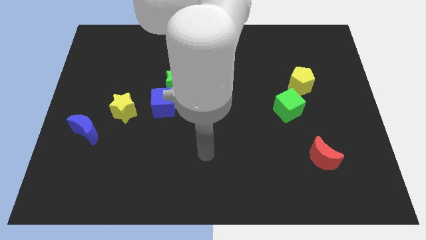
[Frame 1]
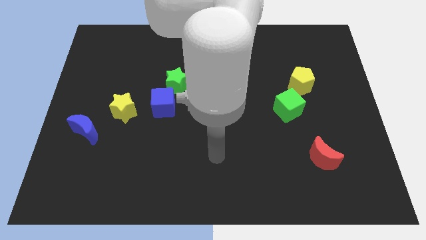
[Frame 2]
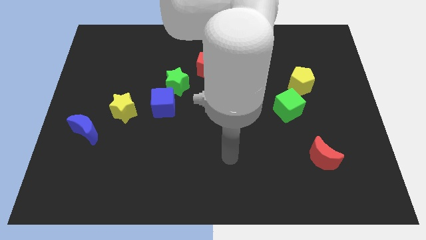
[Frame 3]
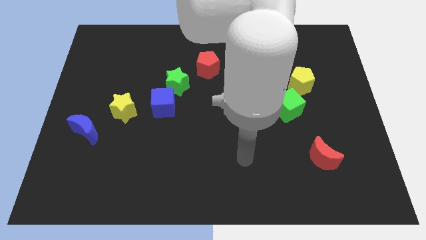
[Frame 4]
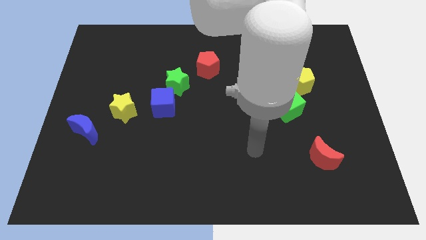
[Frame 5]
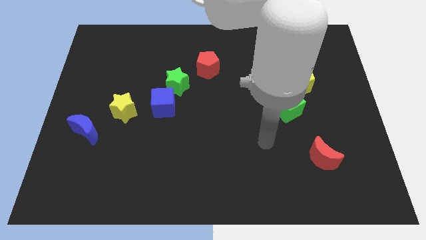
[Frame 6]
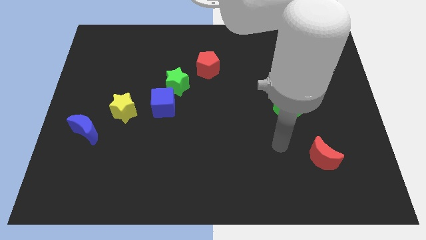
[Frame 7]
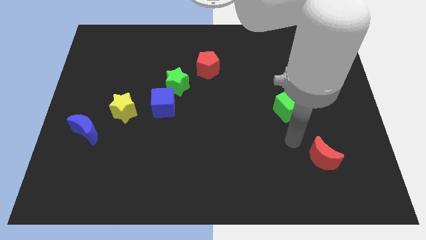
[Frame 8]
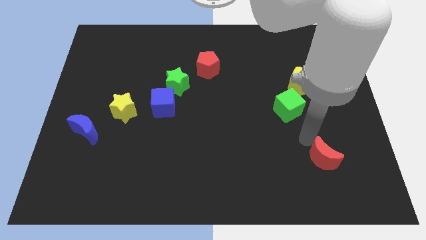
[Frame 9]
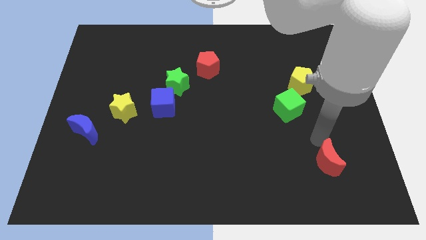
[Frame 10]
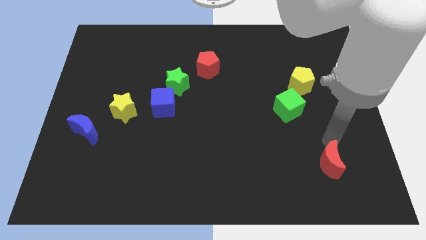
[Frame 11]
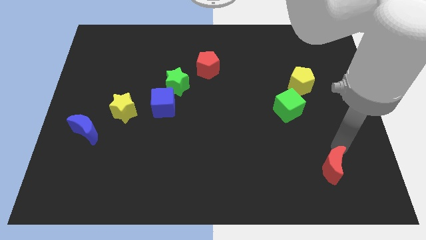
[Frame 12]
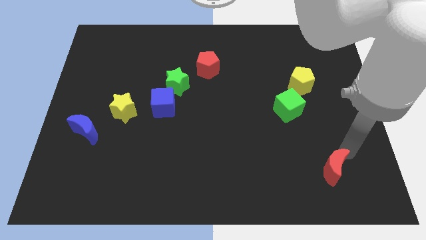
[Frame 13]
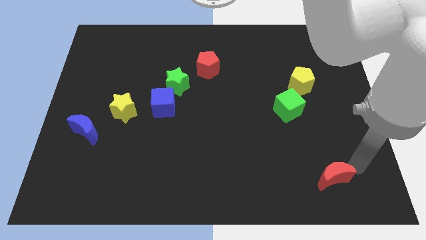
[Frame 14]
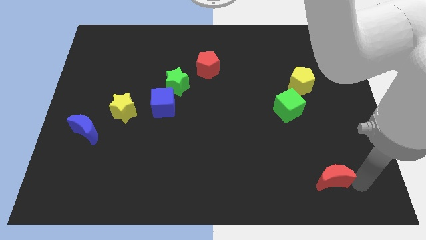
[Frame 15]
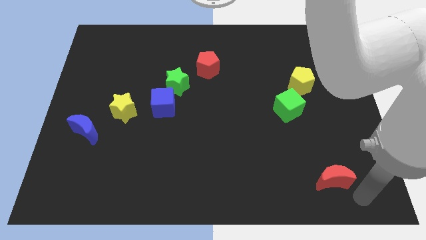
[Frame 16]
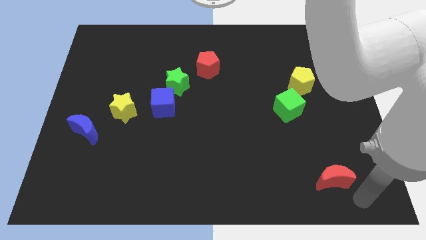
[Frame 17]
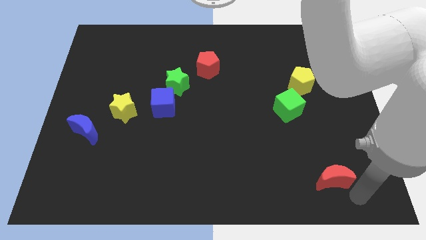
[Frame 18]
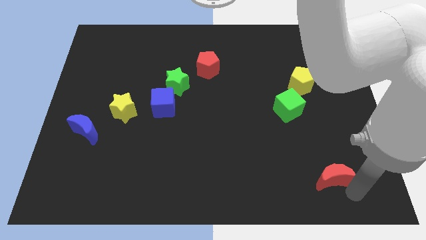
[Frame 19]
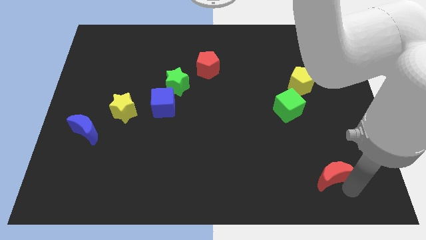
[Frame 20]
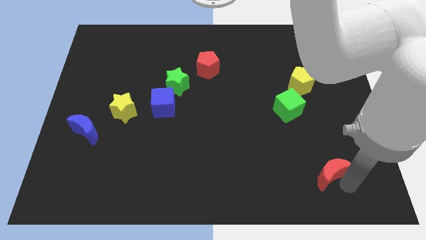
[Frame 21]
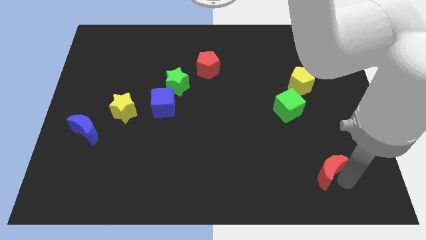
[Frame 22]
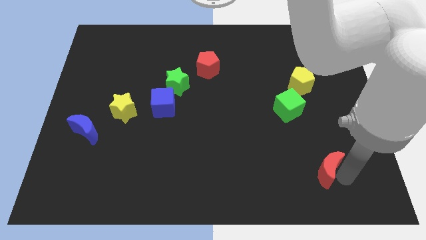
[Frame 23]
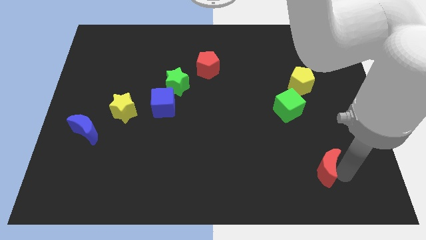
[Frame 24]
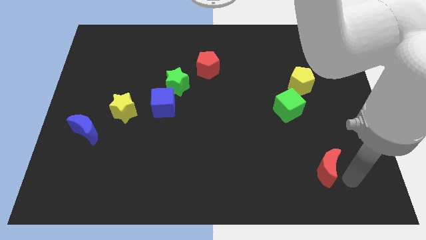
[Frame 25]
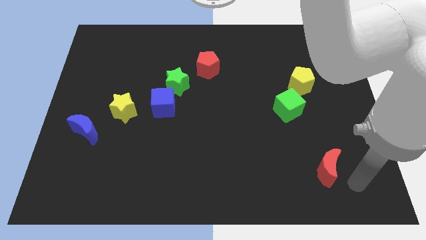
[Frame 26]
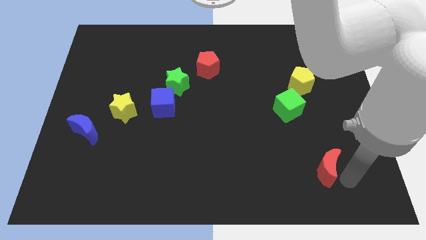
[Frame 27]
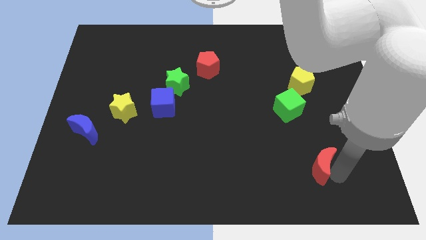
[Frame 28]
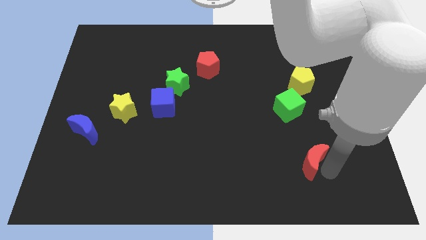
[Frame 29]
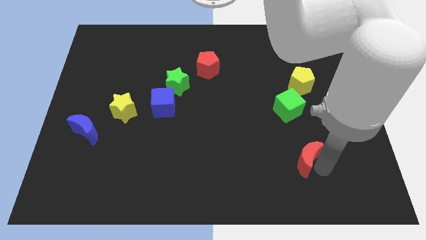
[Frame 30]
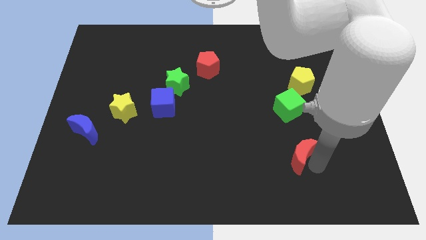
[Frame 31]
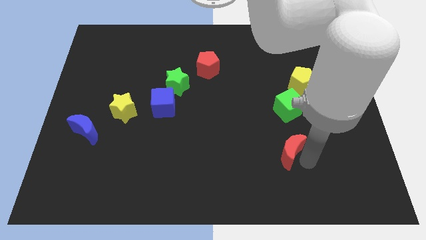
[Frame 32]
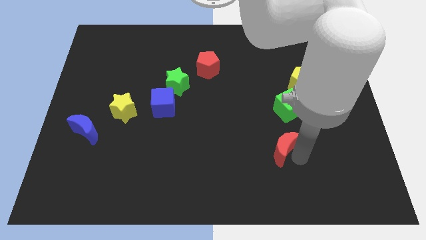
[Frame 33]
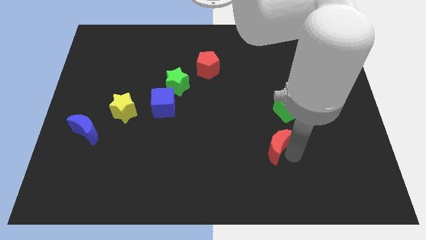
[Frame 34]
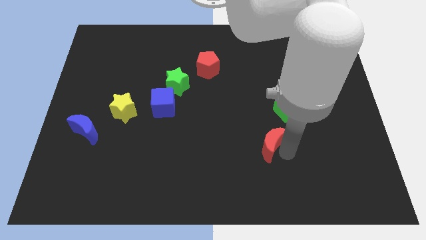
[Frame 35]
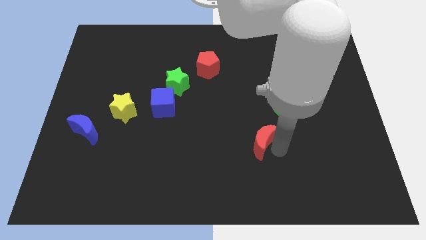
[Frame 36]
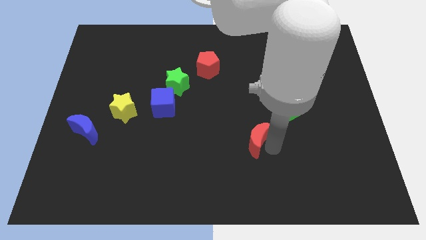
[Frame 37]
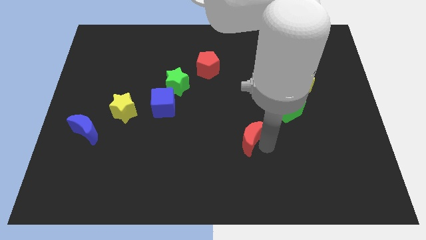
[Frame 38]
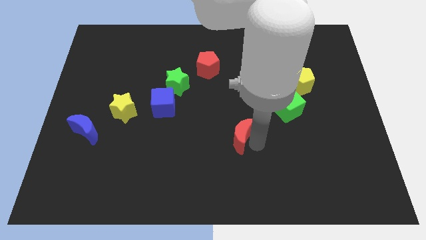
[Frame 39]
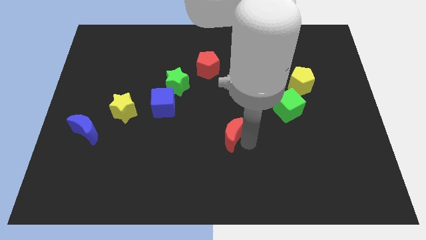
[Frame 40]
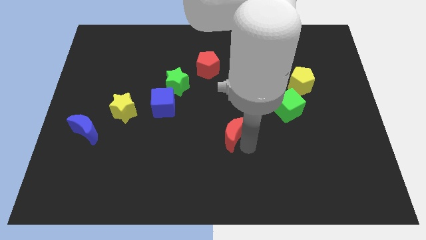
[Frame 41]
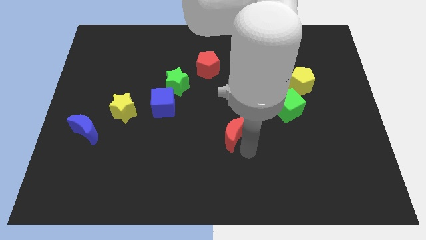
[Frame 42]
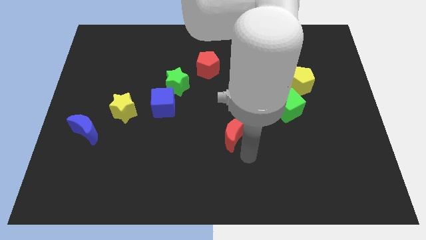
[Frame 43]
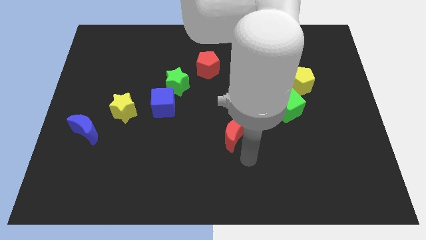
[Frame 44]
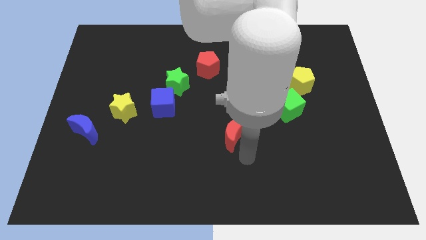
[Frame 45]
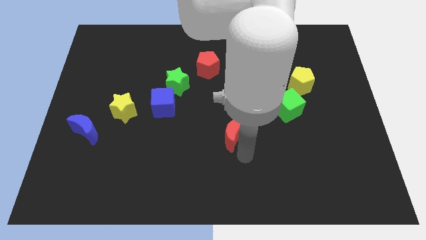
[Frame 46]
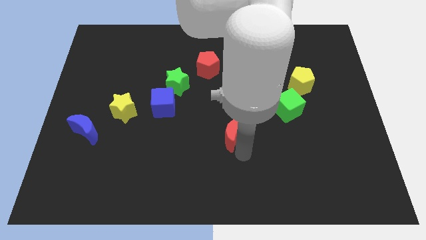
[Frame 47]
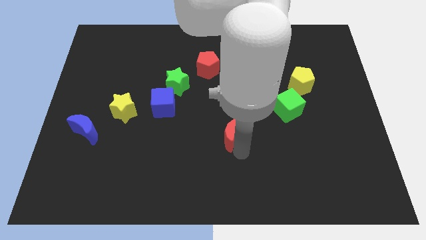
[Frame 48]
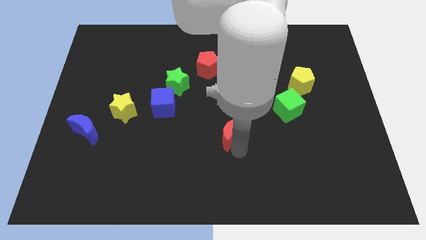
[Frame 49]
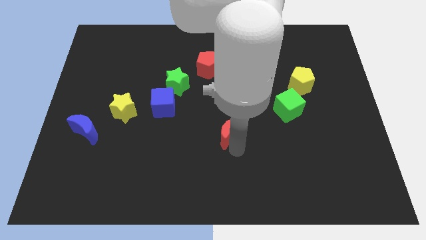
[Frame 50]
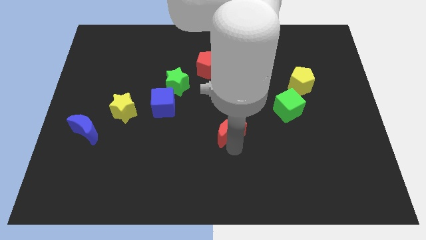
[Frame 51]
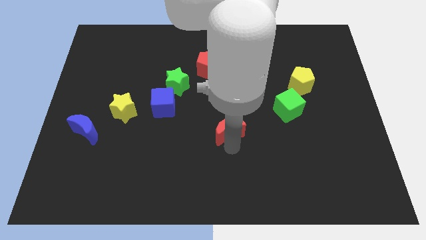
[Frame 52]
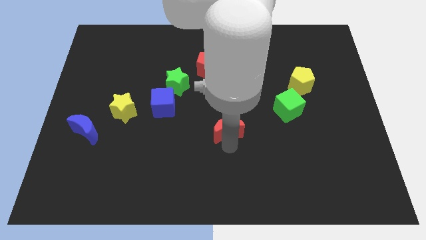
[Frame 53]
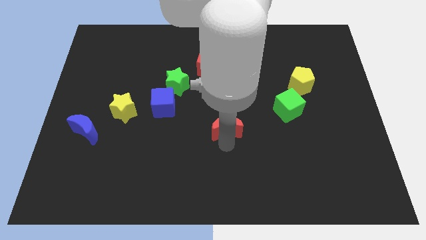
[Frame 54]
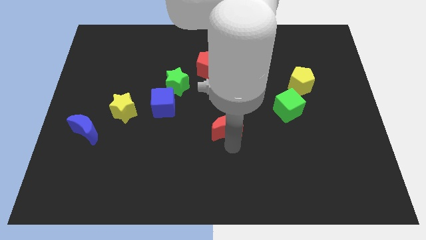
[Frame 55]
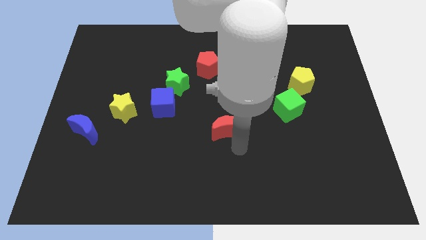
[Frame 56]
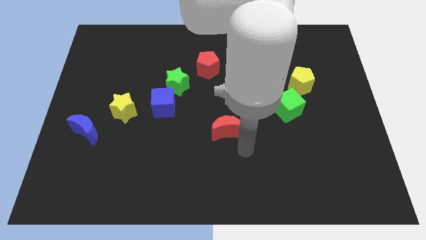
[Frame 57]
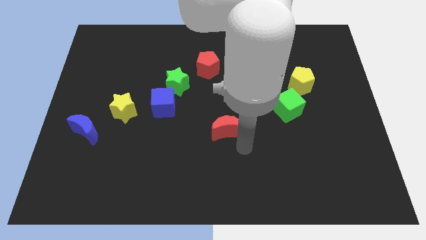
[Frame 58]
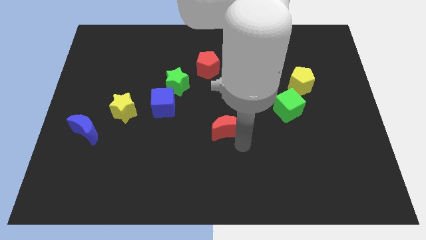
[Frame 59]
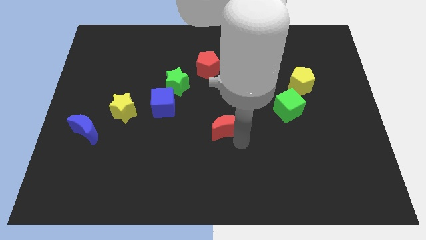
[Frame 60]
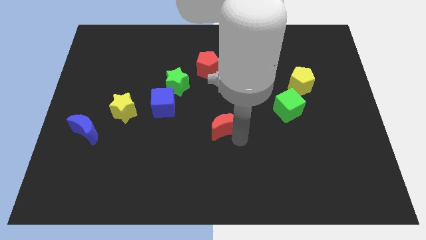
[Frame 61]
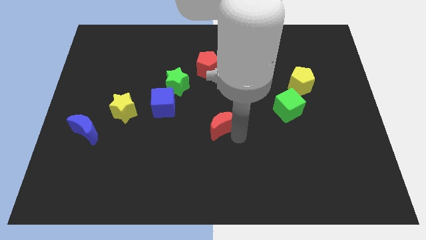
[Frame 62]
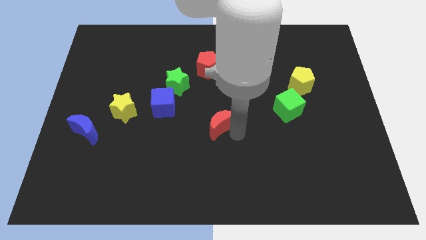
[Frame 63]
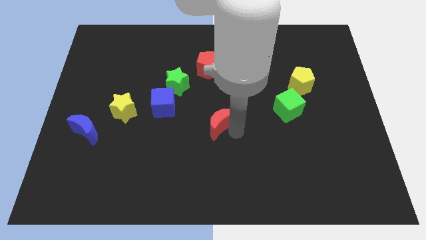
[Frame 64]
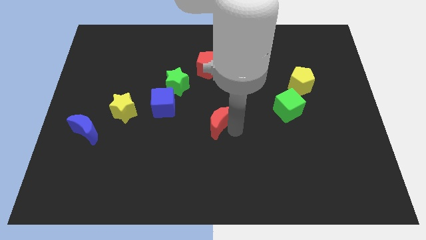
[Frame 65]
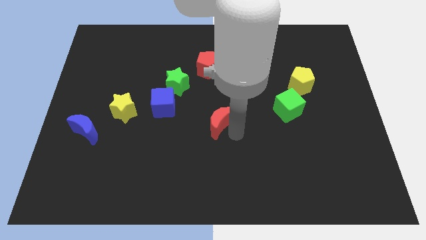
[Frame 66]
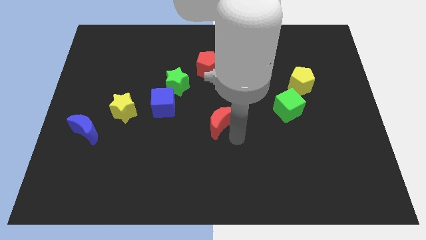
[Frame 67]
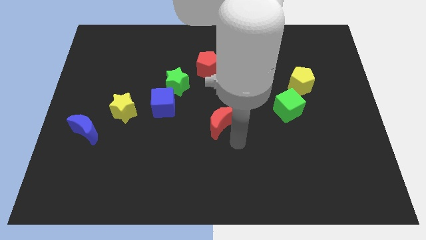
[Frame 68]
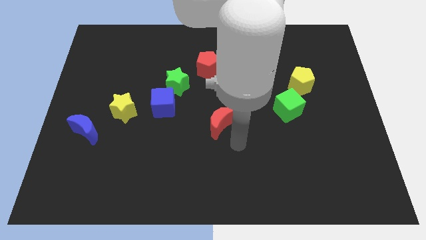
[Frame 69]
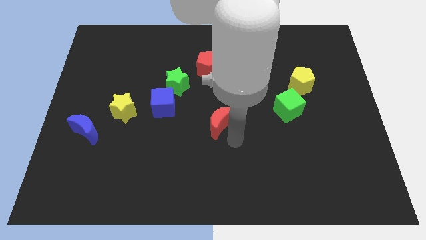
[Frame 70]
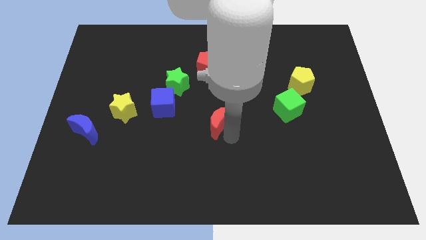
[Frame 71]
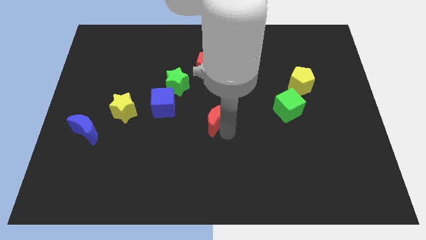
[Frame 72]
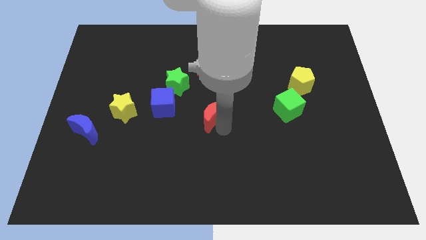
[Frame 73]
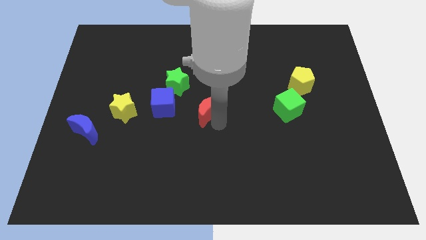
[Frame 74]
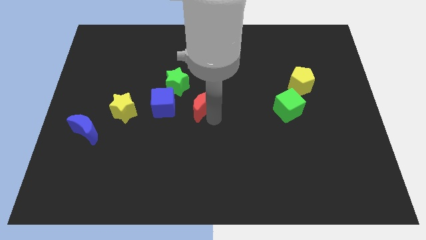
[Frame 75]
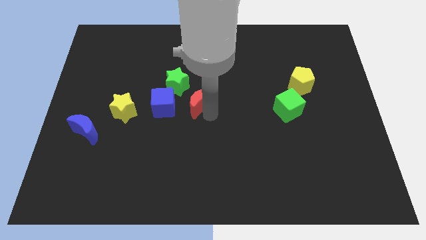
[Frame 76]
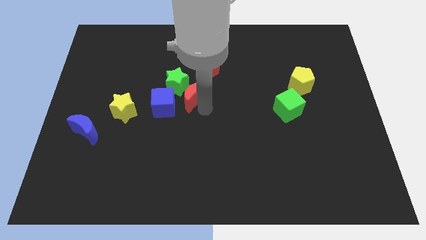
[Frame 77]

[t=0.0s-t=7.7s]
slide the red moon close to the green star
